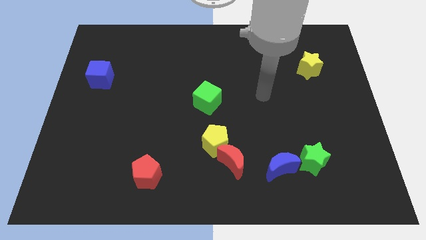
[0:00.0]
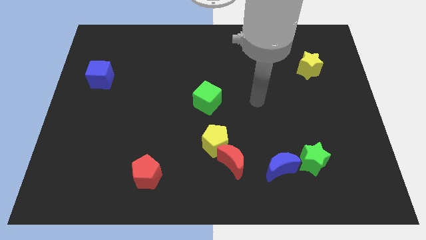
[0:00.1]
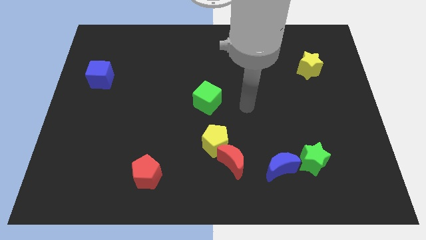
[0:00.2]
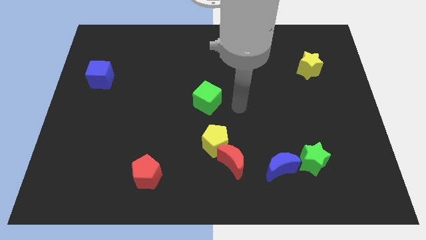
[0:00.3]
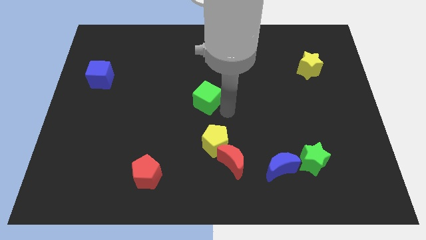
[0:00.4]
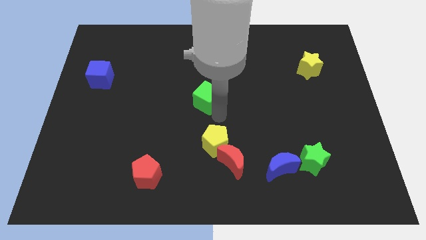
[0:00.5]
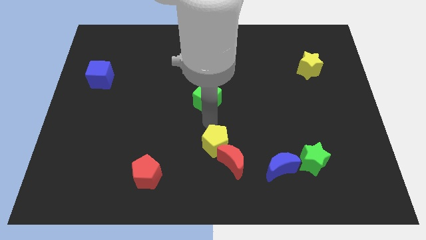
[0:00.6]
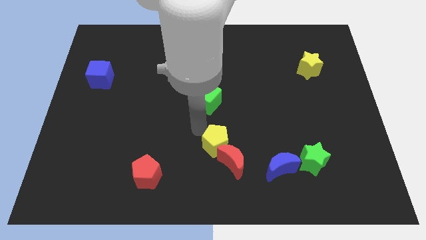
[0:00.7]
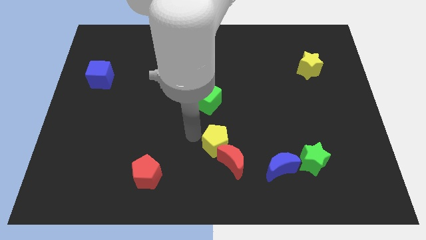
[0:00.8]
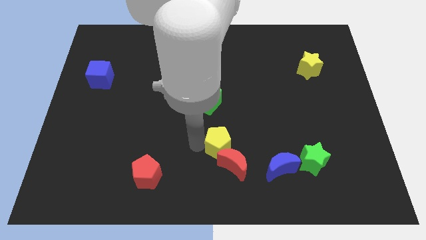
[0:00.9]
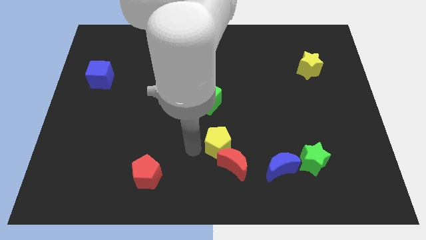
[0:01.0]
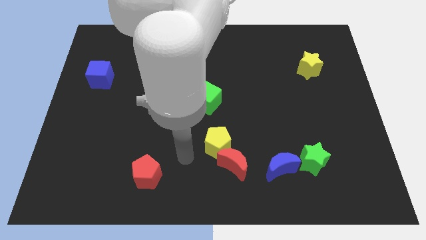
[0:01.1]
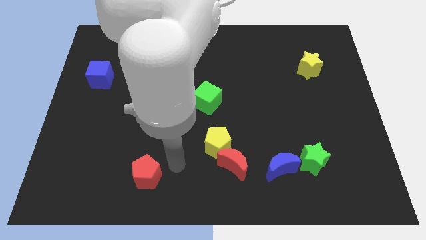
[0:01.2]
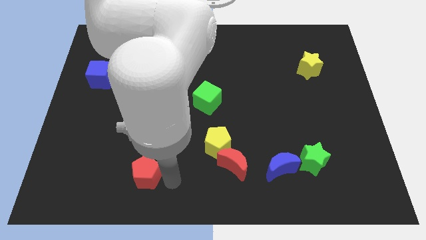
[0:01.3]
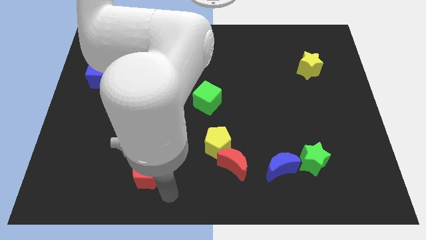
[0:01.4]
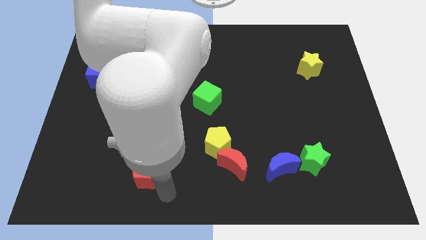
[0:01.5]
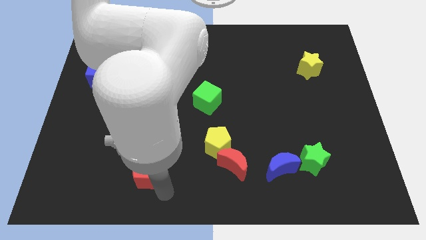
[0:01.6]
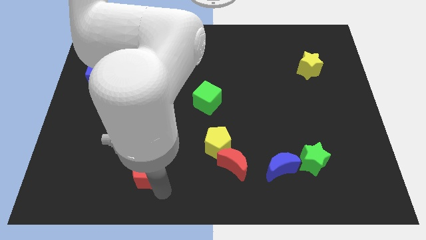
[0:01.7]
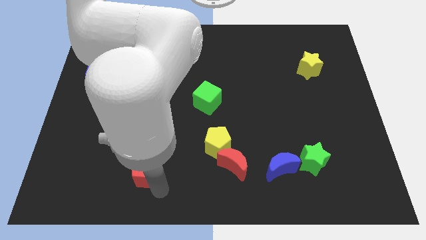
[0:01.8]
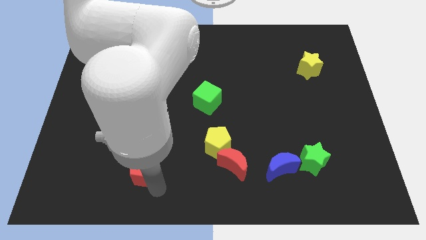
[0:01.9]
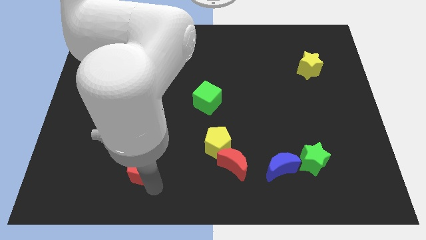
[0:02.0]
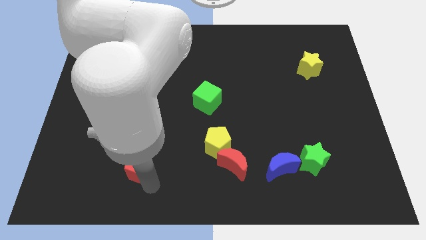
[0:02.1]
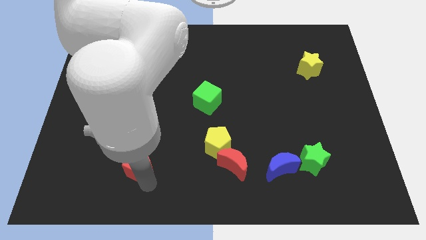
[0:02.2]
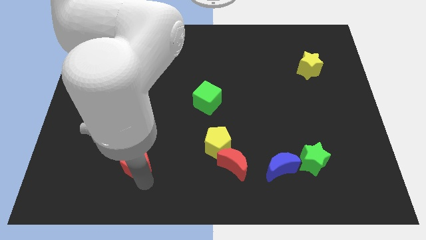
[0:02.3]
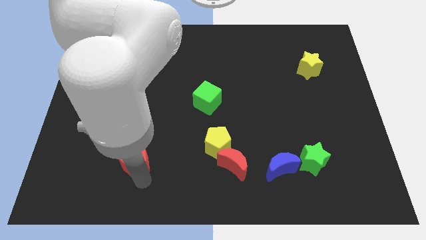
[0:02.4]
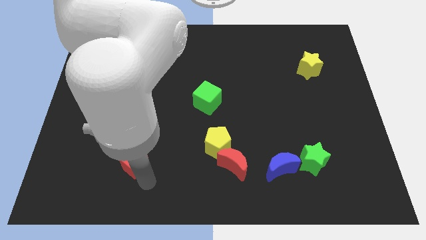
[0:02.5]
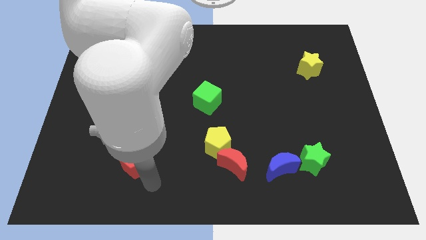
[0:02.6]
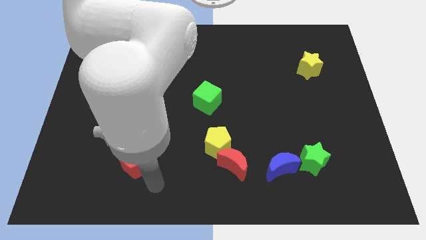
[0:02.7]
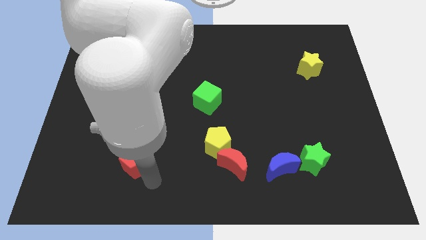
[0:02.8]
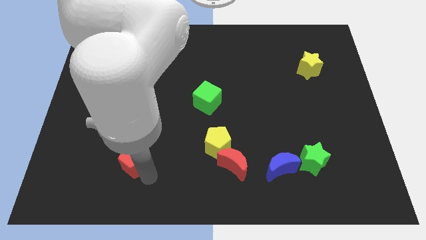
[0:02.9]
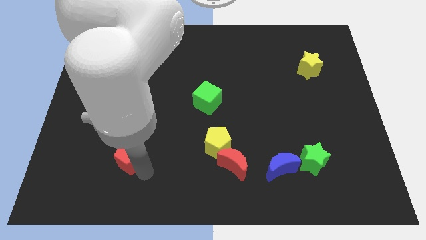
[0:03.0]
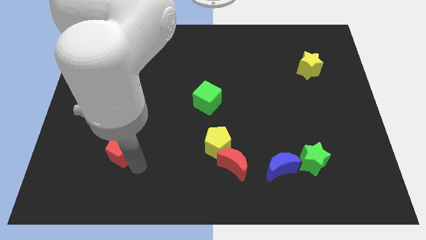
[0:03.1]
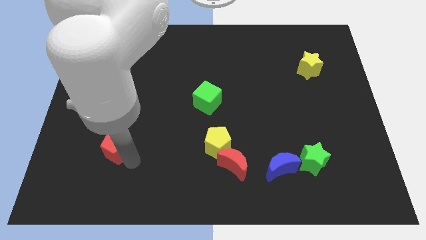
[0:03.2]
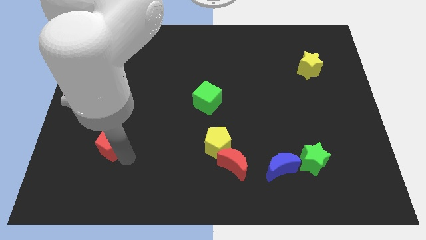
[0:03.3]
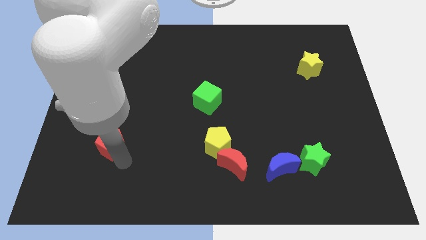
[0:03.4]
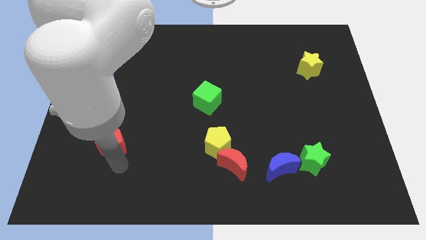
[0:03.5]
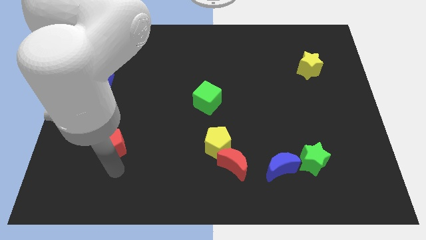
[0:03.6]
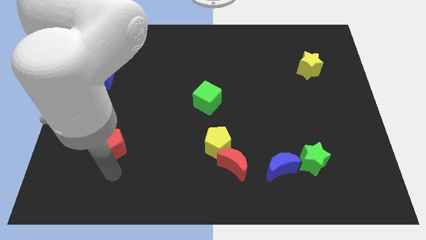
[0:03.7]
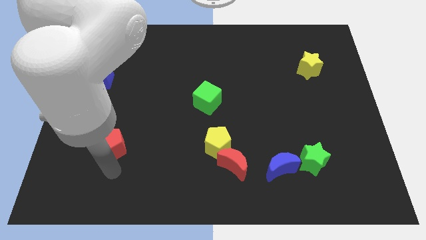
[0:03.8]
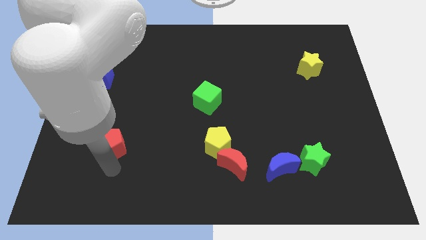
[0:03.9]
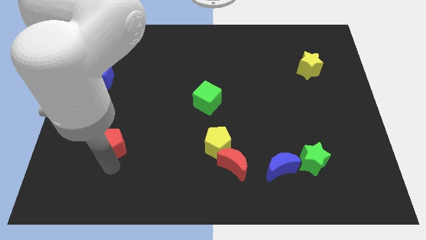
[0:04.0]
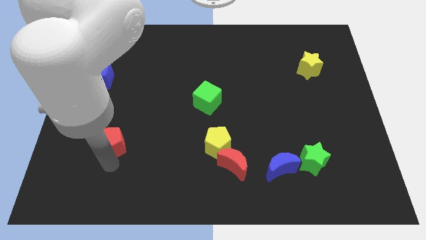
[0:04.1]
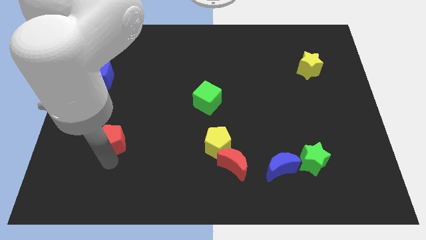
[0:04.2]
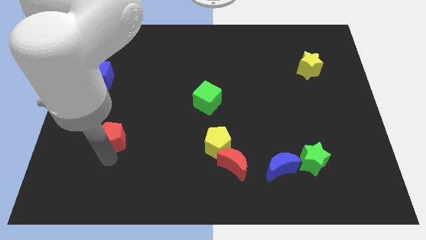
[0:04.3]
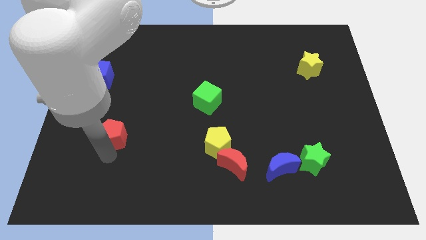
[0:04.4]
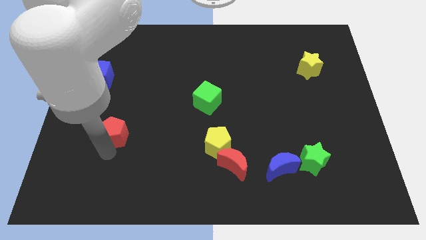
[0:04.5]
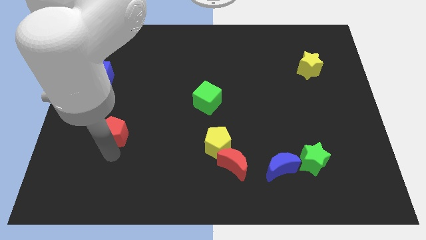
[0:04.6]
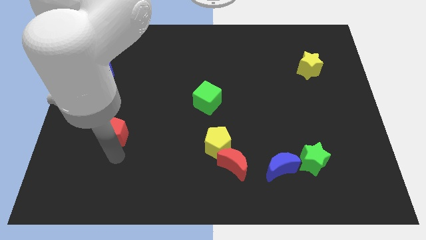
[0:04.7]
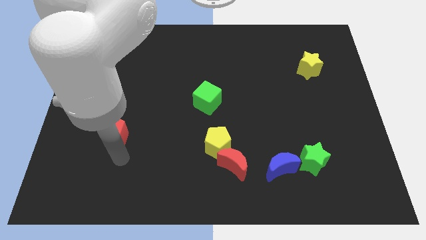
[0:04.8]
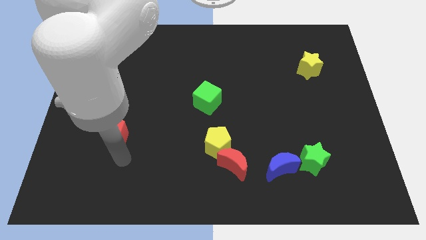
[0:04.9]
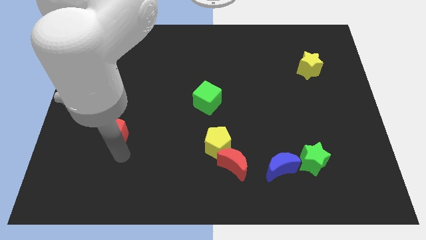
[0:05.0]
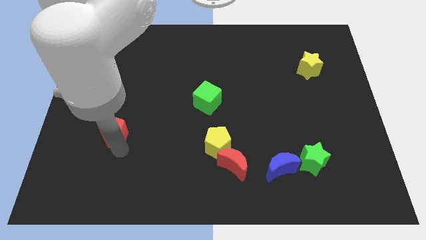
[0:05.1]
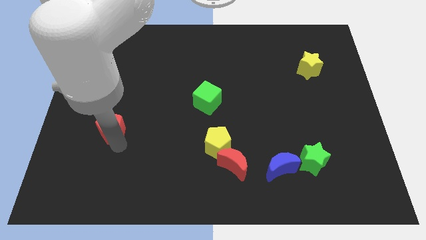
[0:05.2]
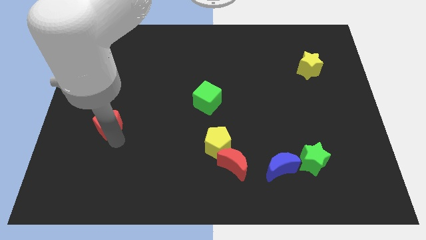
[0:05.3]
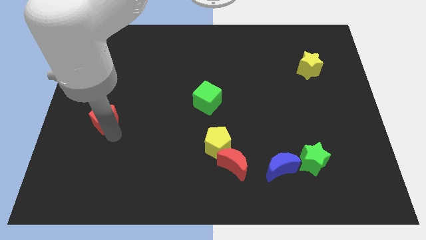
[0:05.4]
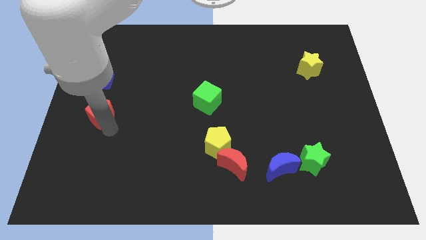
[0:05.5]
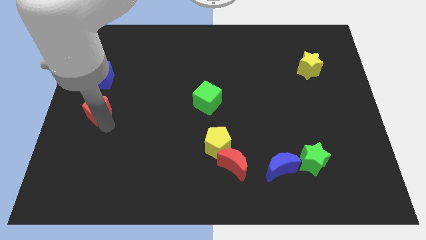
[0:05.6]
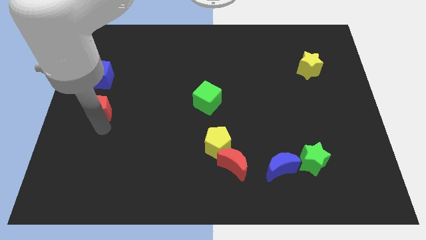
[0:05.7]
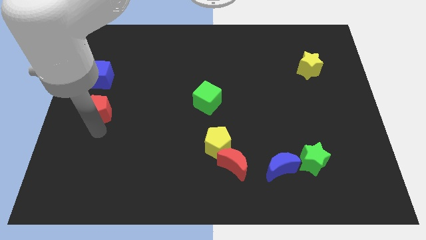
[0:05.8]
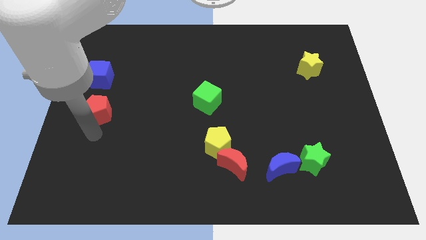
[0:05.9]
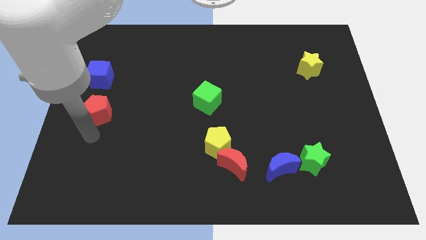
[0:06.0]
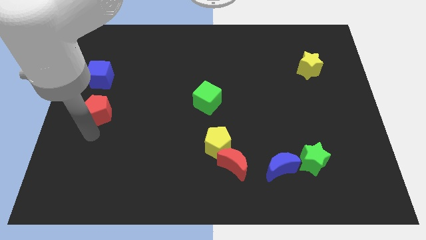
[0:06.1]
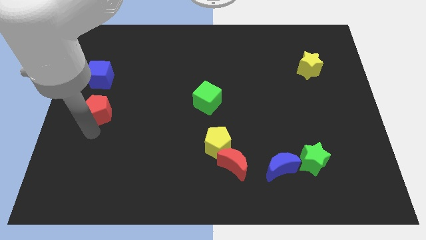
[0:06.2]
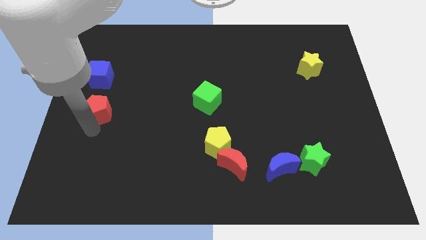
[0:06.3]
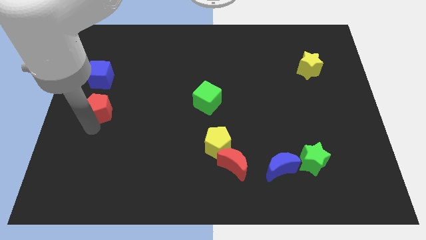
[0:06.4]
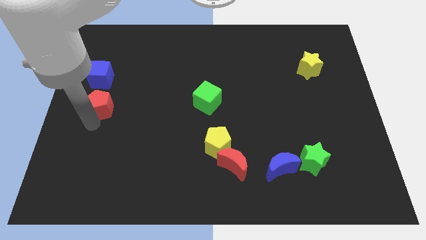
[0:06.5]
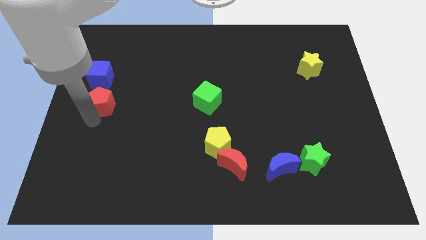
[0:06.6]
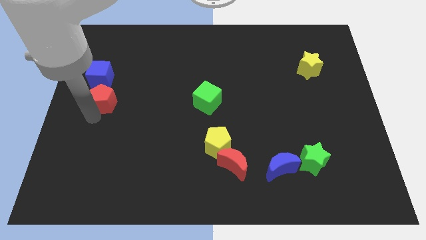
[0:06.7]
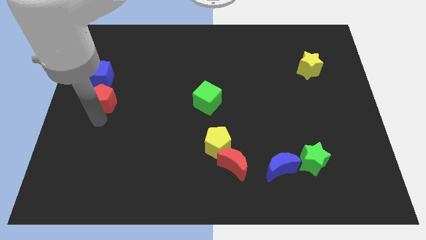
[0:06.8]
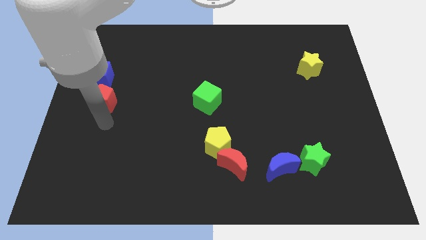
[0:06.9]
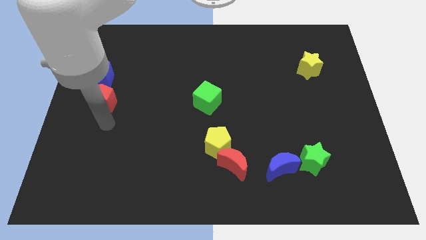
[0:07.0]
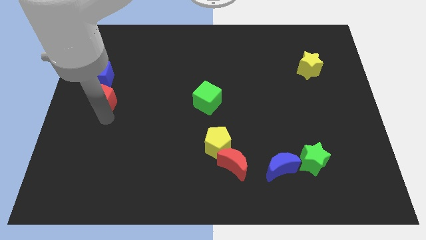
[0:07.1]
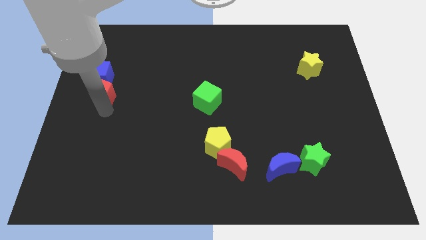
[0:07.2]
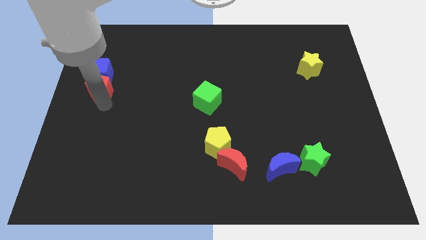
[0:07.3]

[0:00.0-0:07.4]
move the red pentagon to the blue cube

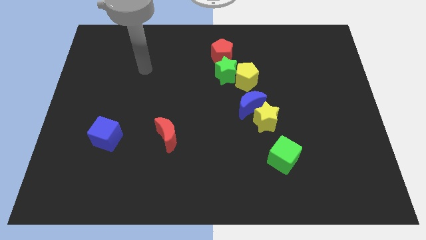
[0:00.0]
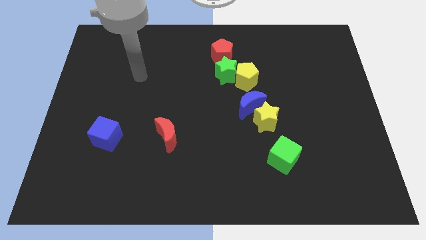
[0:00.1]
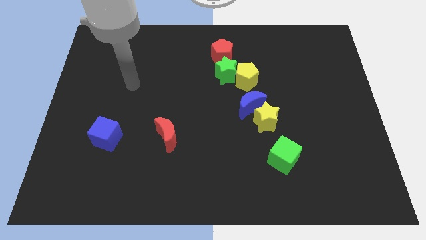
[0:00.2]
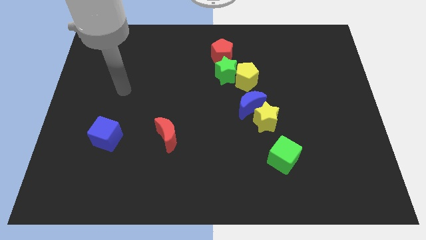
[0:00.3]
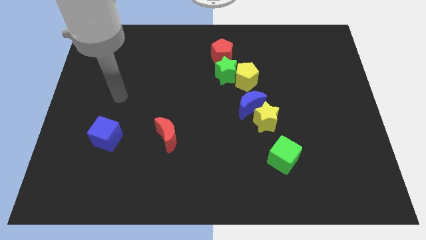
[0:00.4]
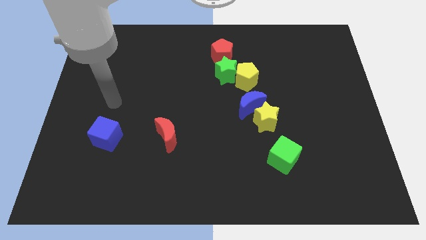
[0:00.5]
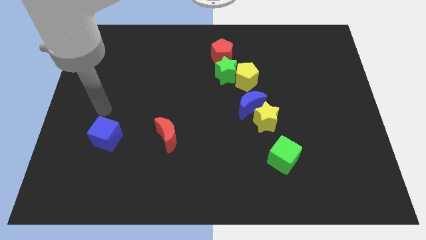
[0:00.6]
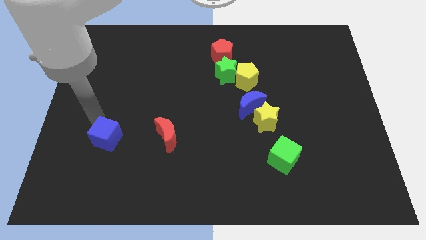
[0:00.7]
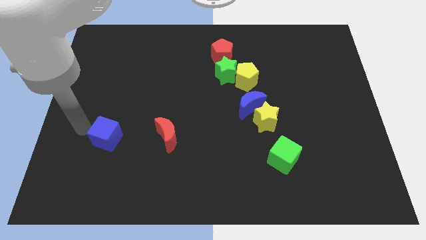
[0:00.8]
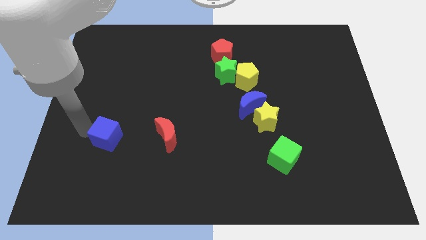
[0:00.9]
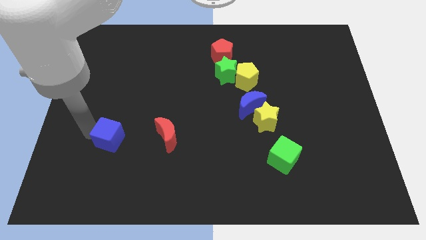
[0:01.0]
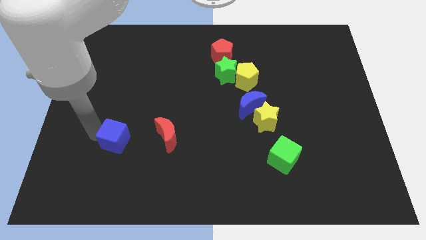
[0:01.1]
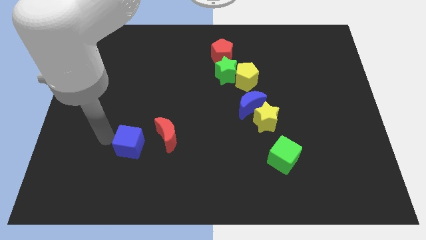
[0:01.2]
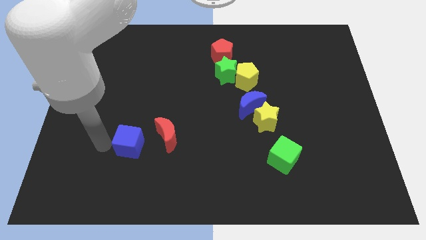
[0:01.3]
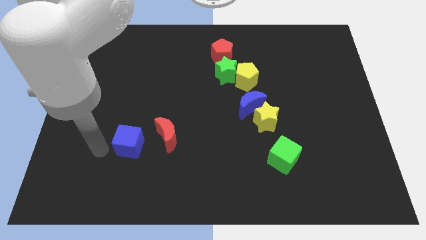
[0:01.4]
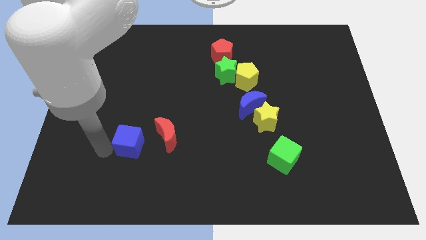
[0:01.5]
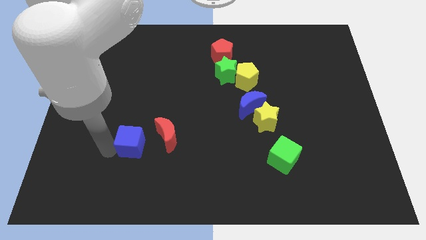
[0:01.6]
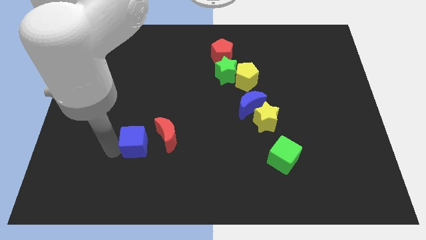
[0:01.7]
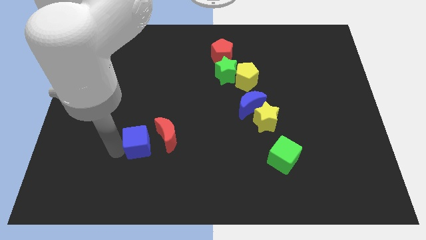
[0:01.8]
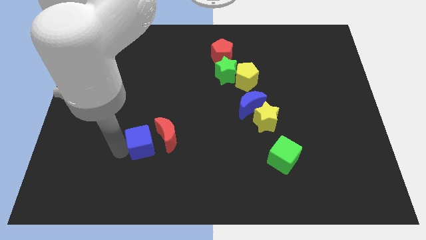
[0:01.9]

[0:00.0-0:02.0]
push the blue cube next to the red moon
